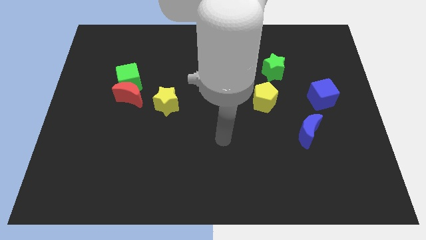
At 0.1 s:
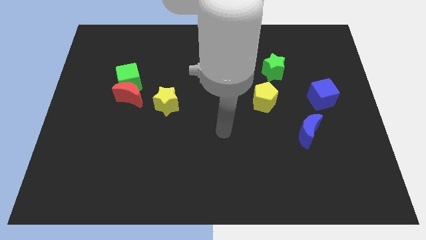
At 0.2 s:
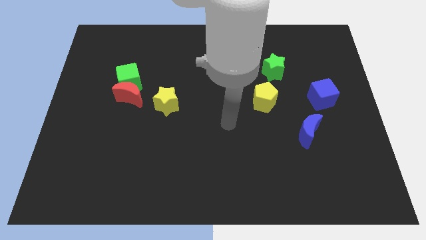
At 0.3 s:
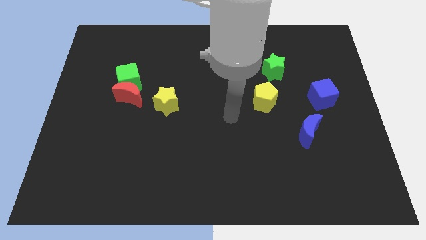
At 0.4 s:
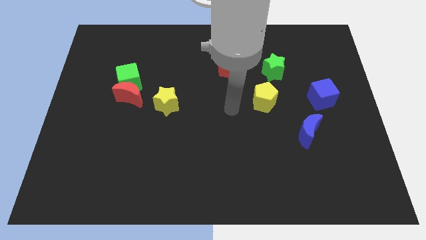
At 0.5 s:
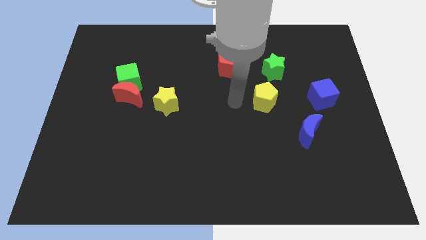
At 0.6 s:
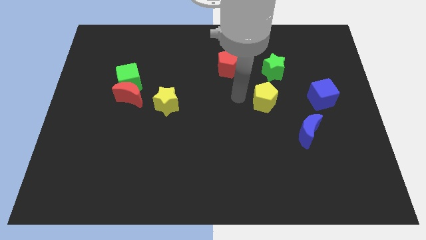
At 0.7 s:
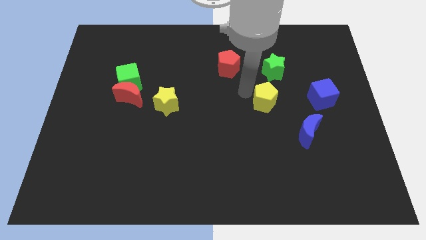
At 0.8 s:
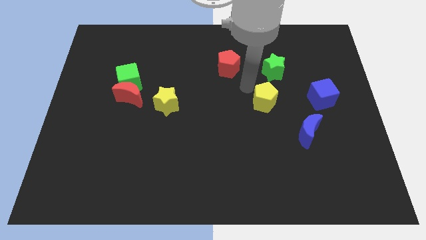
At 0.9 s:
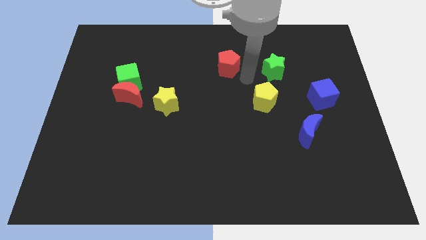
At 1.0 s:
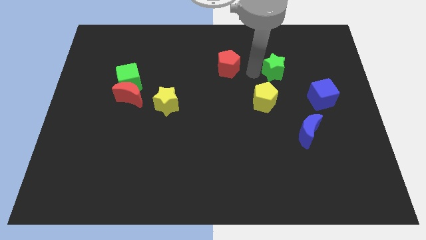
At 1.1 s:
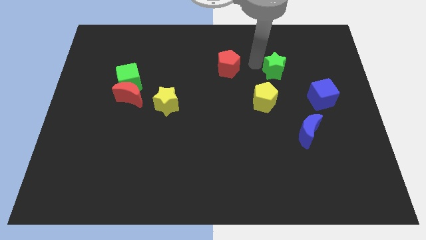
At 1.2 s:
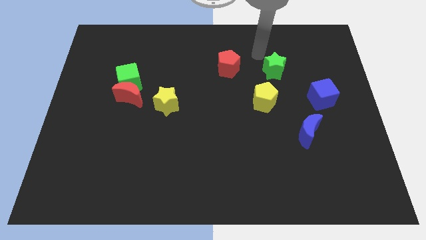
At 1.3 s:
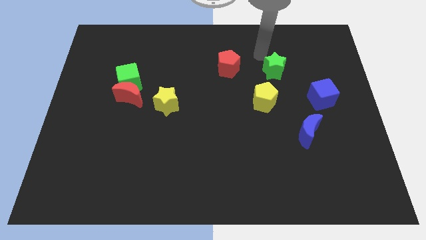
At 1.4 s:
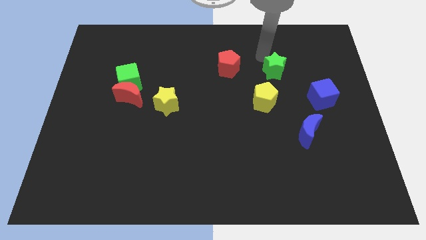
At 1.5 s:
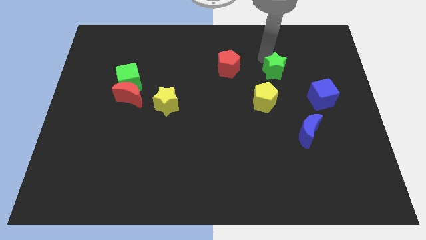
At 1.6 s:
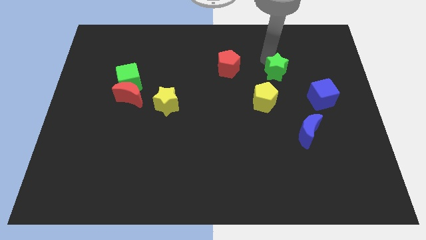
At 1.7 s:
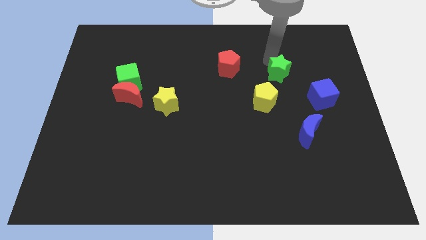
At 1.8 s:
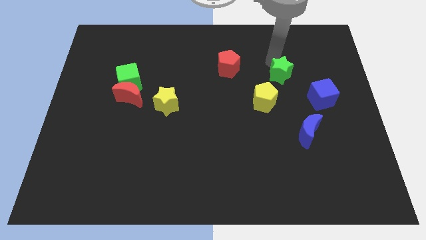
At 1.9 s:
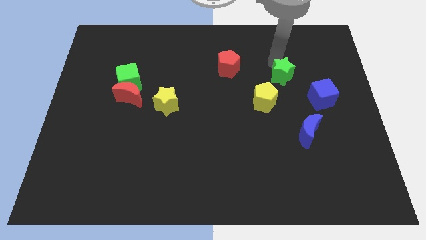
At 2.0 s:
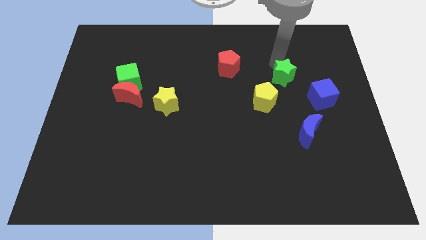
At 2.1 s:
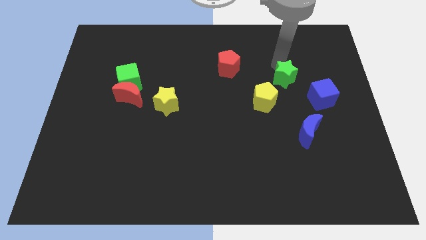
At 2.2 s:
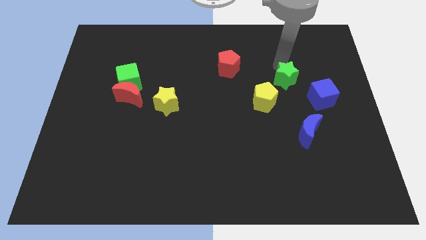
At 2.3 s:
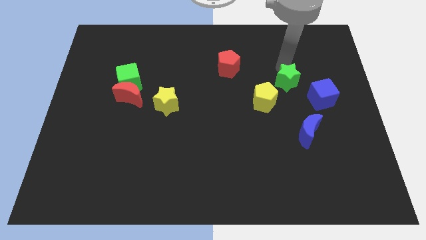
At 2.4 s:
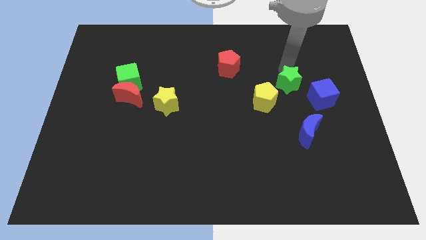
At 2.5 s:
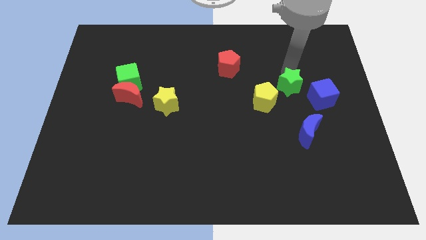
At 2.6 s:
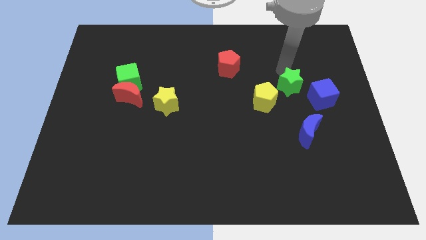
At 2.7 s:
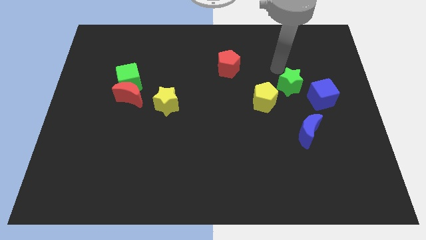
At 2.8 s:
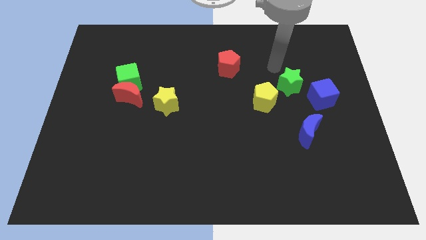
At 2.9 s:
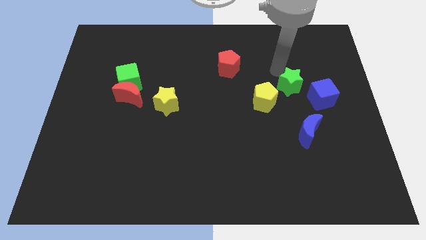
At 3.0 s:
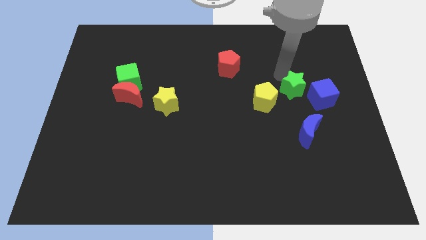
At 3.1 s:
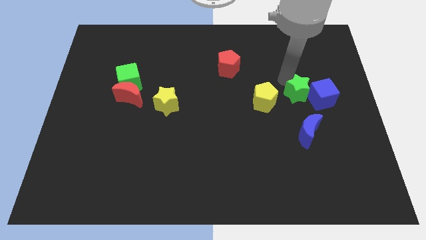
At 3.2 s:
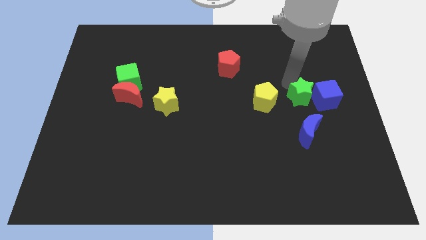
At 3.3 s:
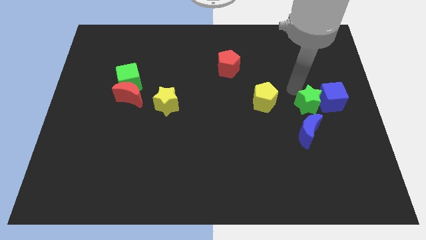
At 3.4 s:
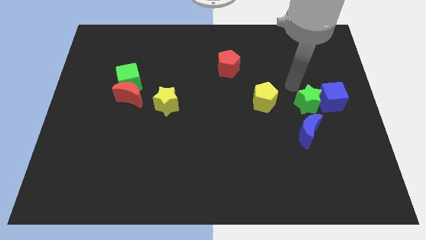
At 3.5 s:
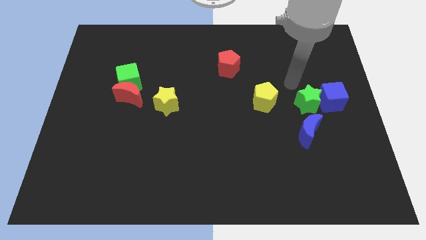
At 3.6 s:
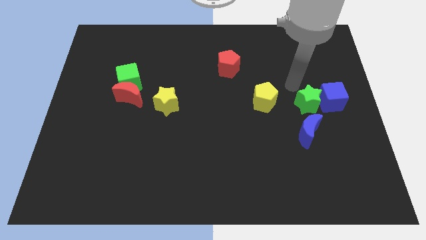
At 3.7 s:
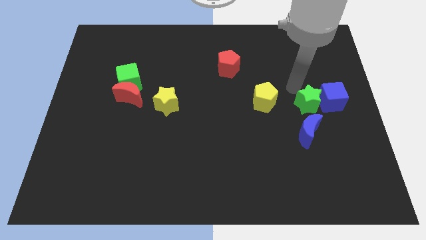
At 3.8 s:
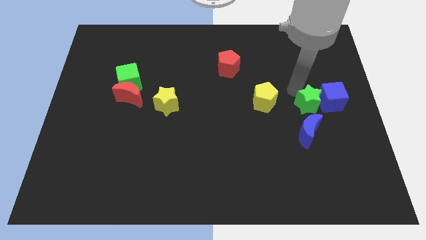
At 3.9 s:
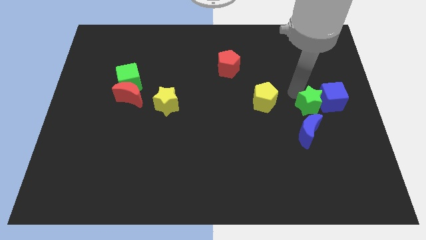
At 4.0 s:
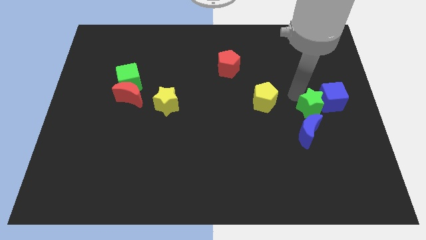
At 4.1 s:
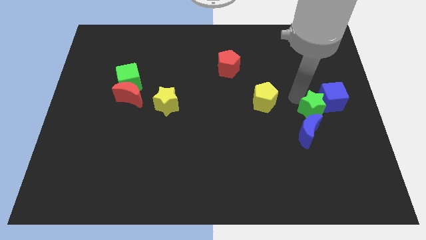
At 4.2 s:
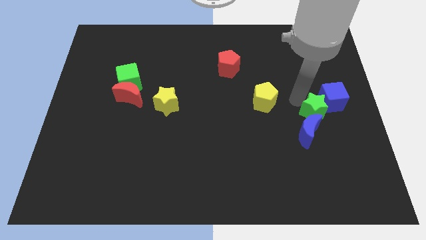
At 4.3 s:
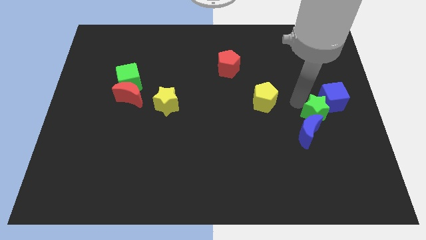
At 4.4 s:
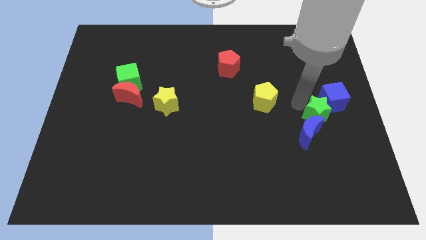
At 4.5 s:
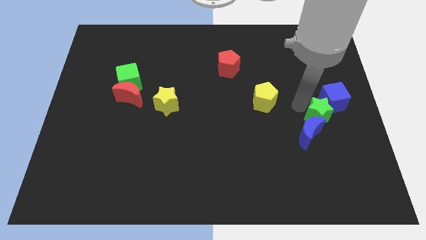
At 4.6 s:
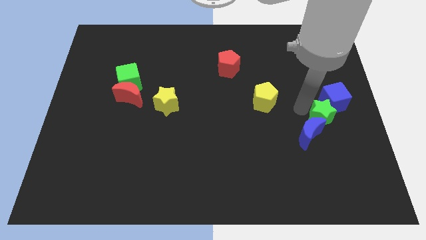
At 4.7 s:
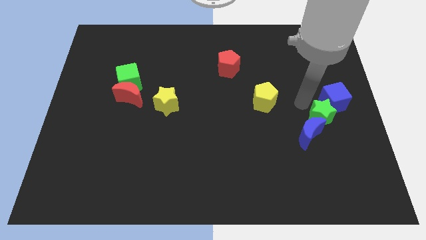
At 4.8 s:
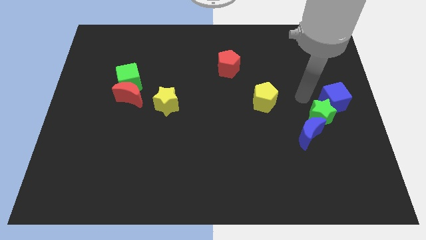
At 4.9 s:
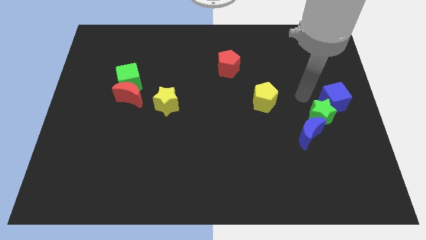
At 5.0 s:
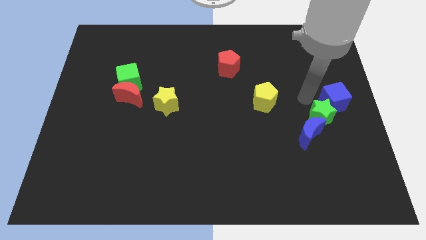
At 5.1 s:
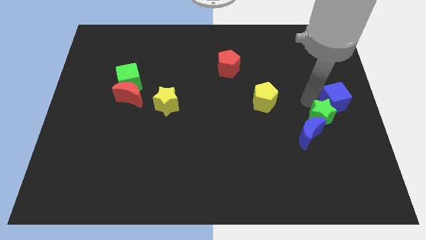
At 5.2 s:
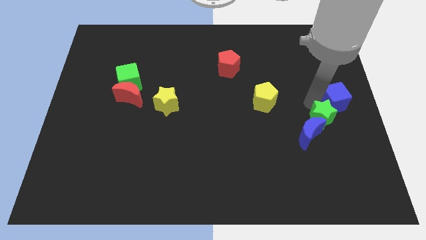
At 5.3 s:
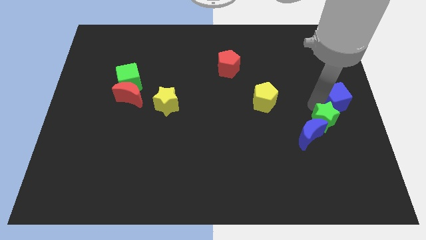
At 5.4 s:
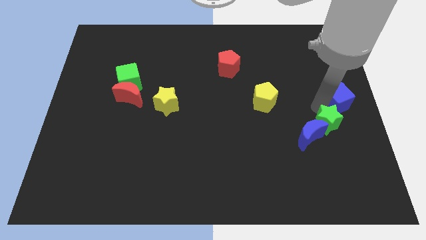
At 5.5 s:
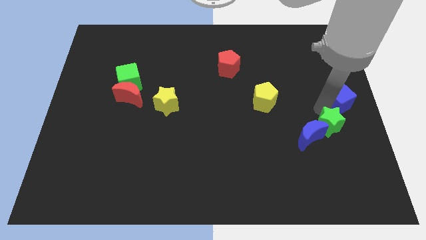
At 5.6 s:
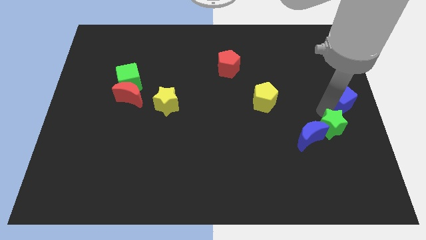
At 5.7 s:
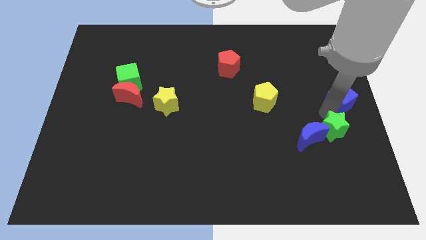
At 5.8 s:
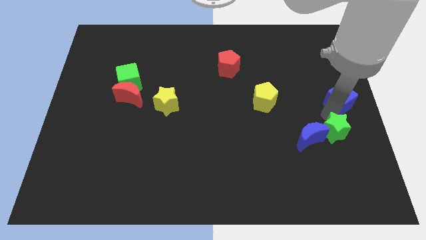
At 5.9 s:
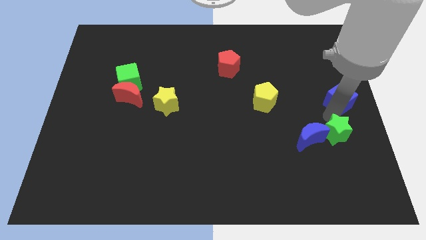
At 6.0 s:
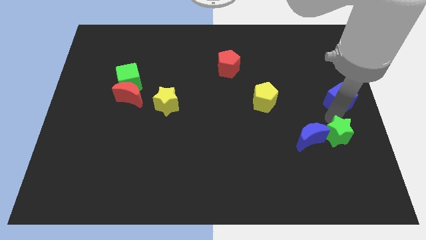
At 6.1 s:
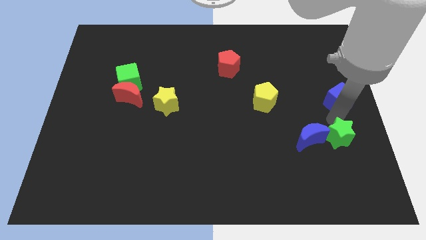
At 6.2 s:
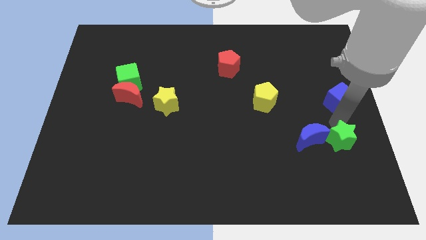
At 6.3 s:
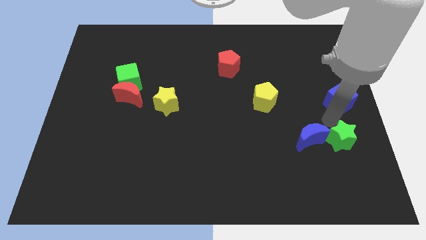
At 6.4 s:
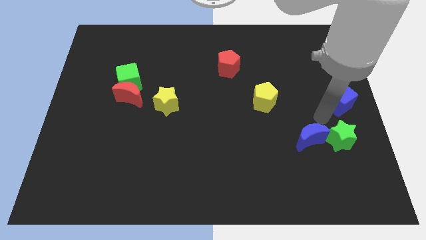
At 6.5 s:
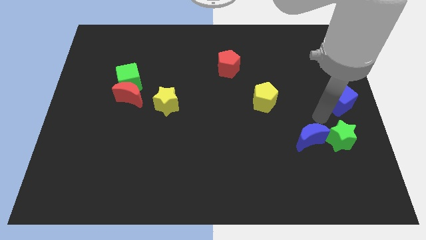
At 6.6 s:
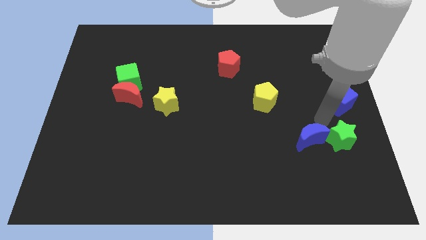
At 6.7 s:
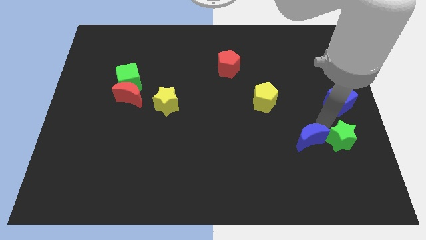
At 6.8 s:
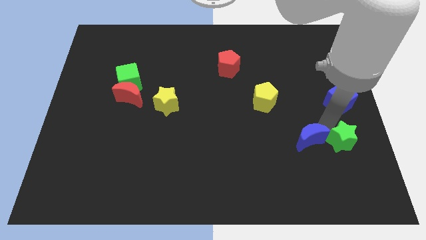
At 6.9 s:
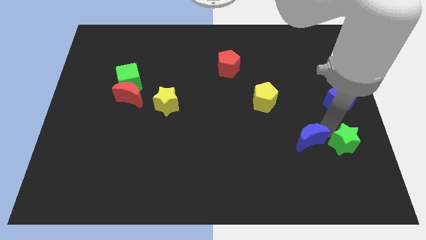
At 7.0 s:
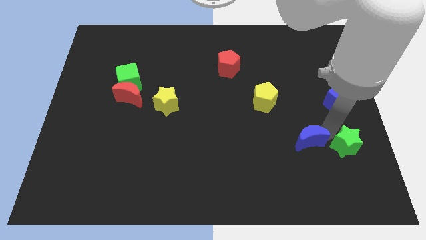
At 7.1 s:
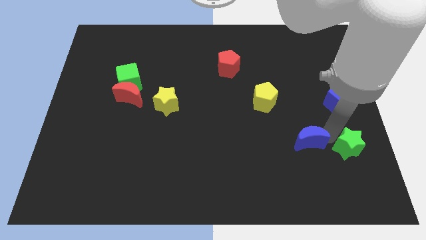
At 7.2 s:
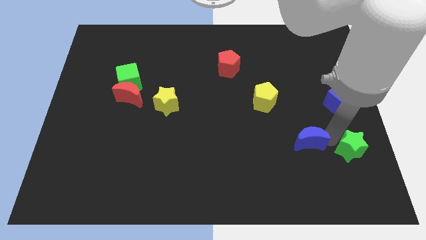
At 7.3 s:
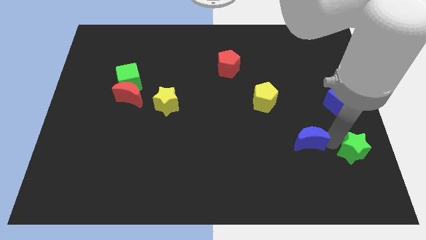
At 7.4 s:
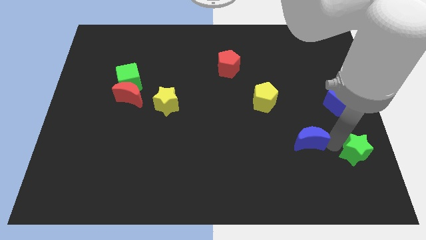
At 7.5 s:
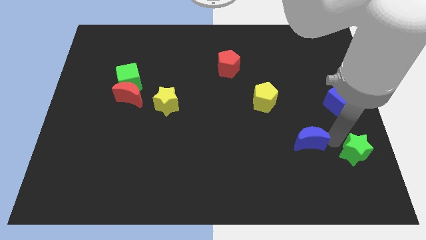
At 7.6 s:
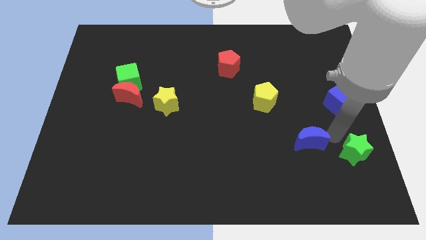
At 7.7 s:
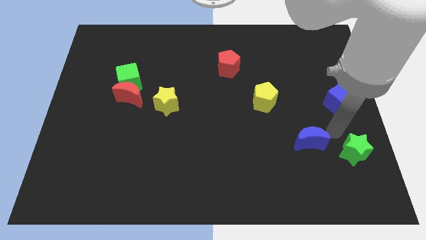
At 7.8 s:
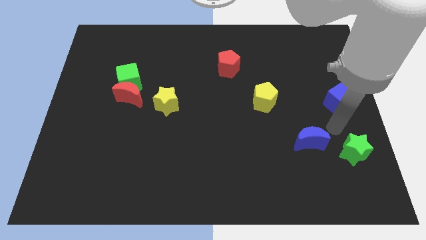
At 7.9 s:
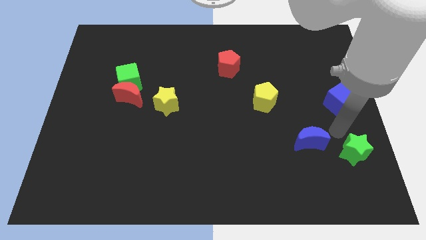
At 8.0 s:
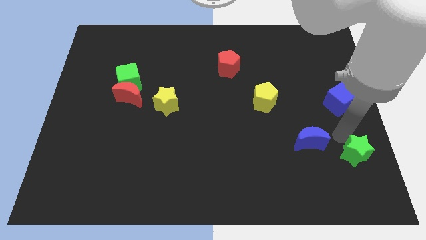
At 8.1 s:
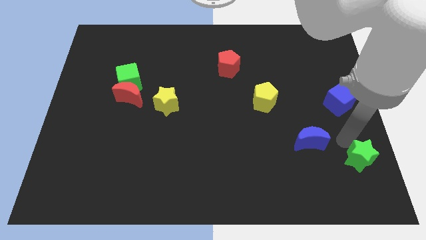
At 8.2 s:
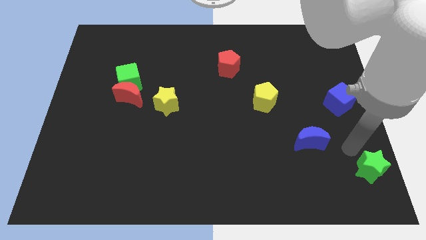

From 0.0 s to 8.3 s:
move the green star to the bottom right
